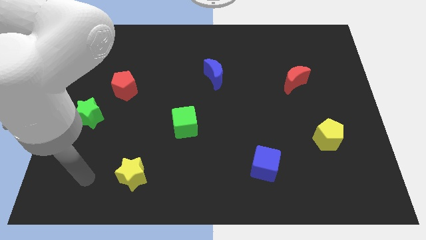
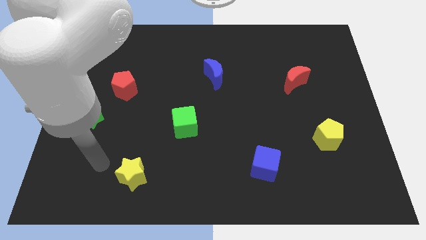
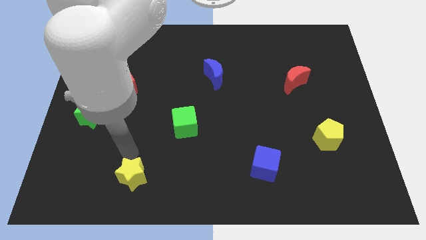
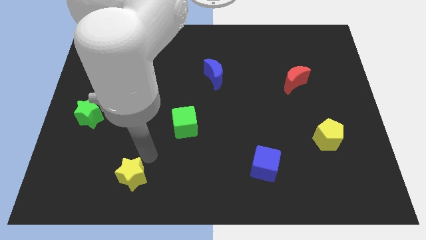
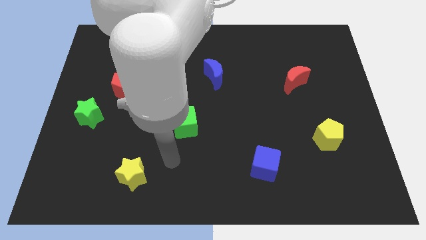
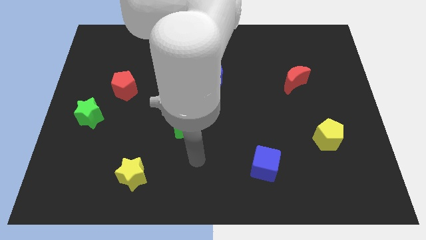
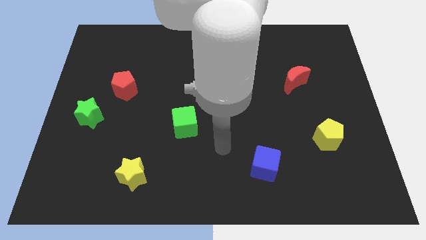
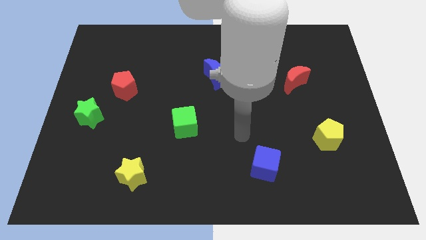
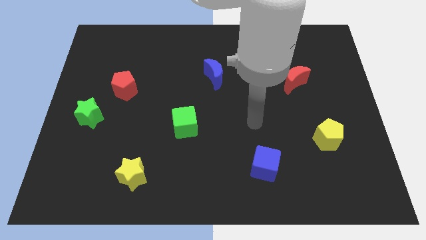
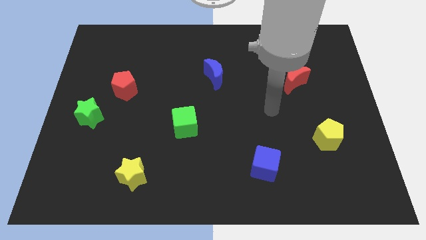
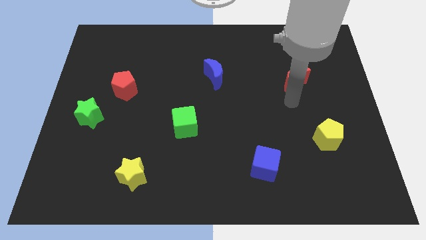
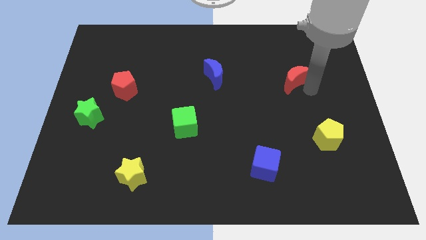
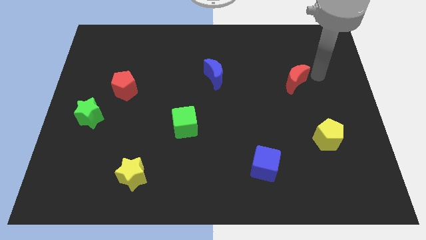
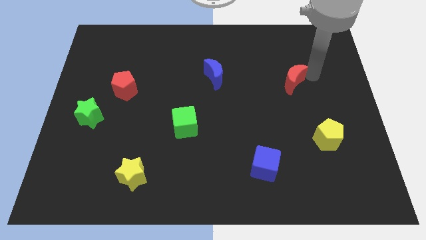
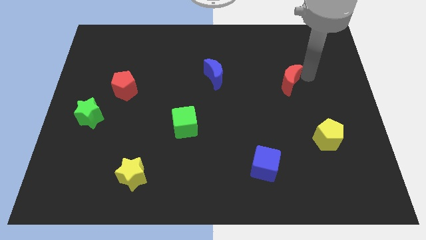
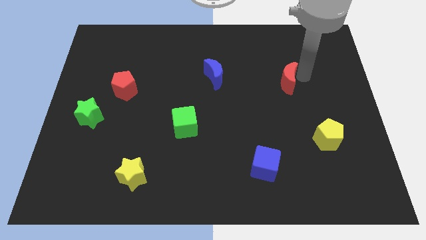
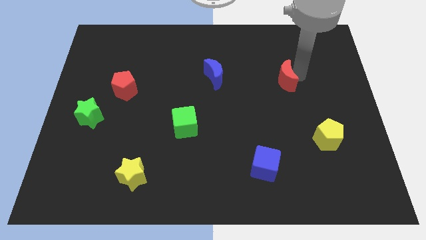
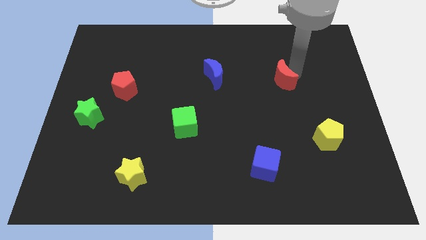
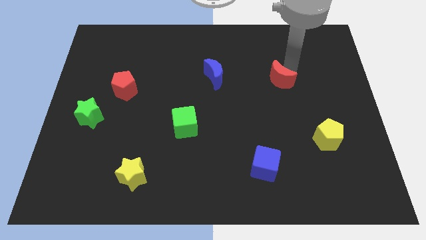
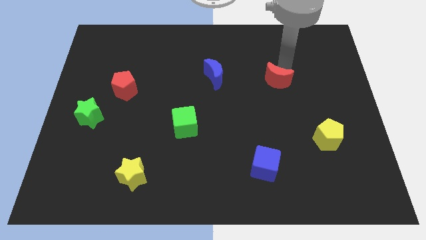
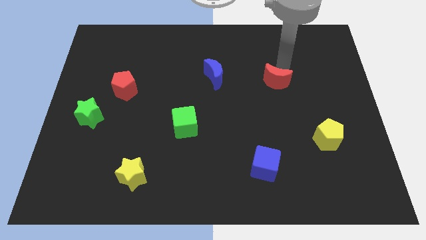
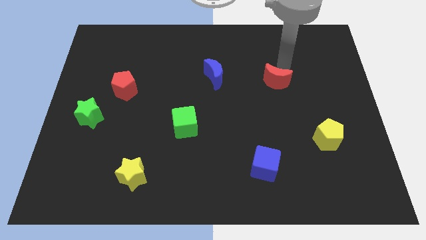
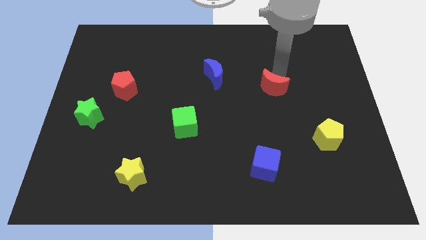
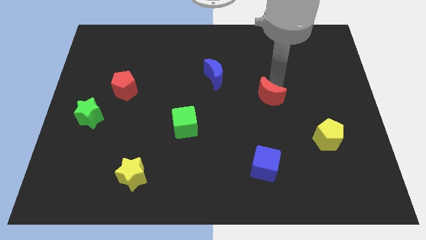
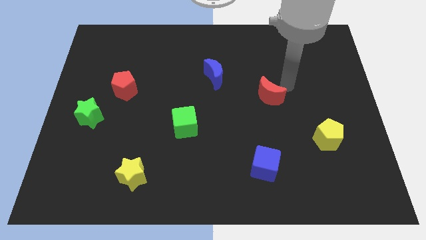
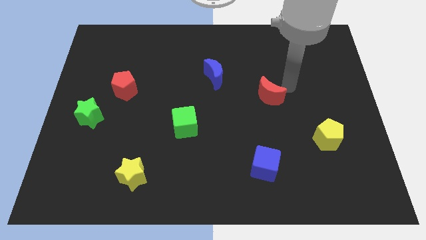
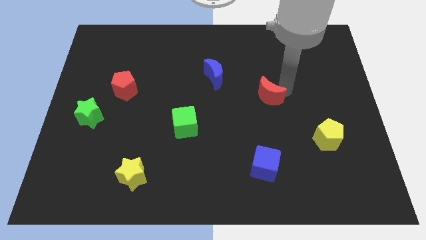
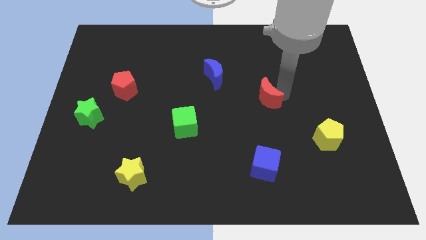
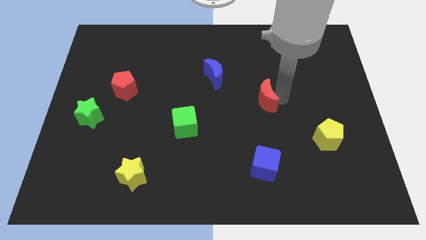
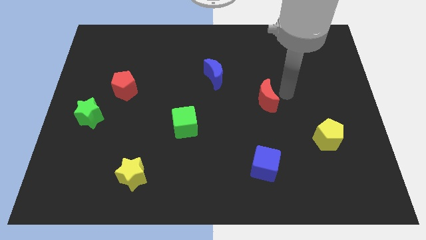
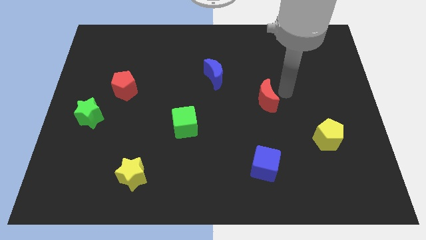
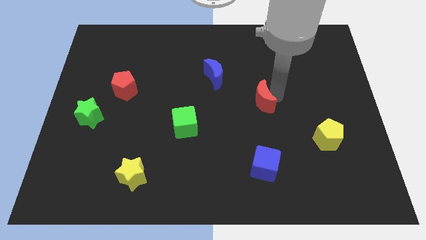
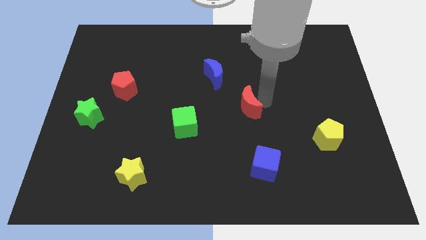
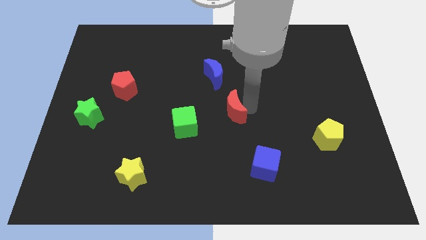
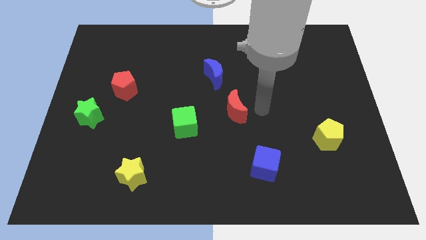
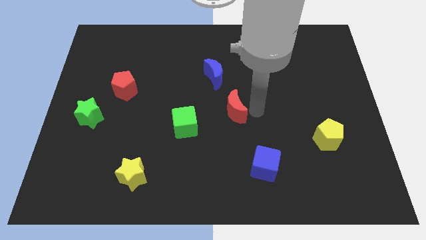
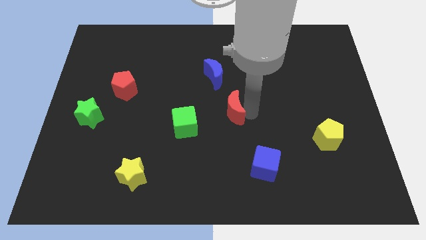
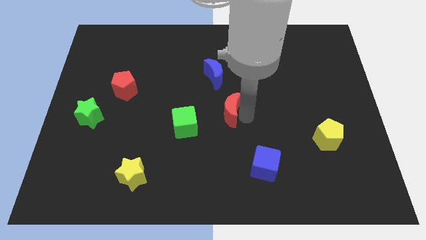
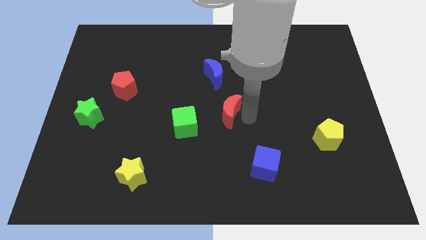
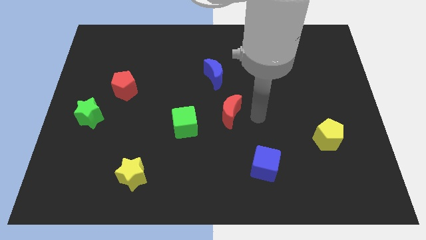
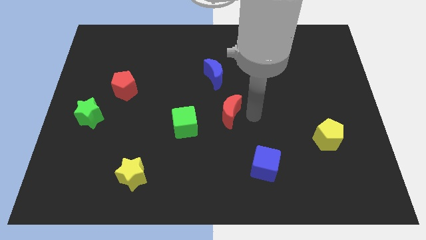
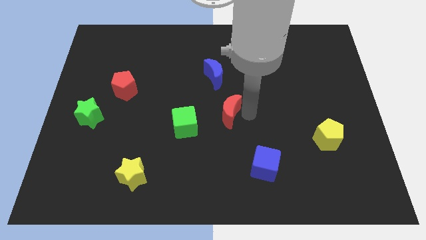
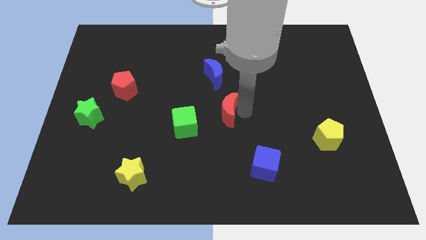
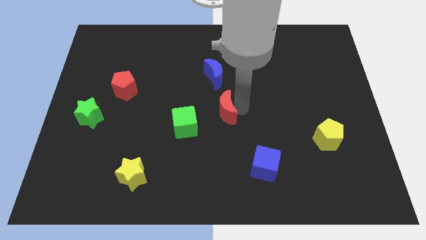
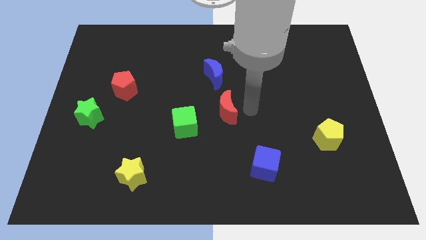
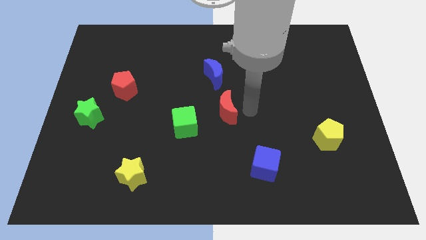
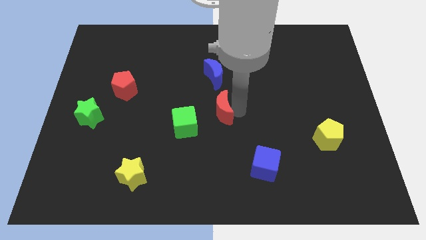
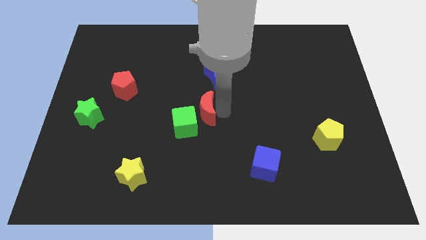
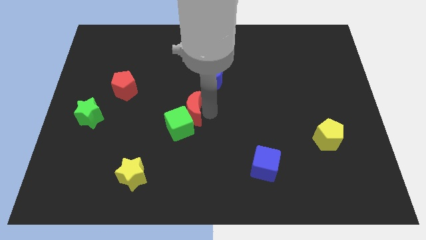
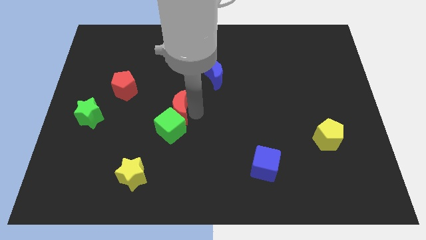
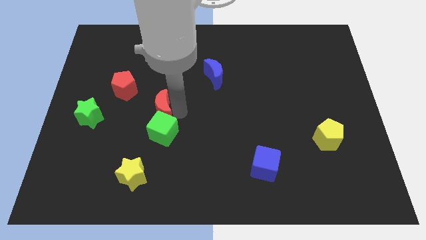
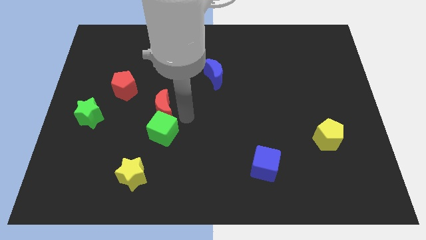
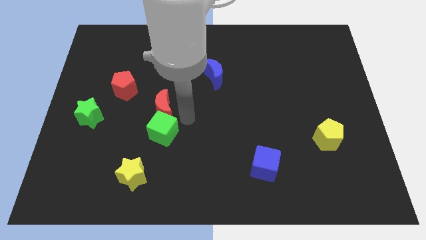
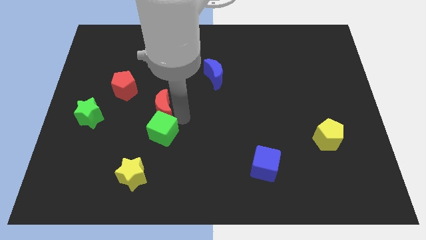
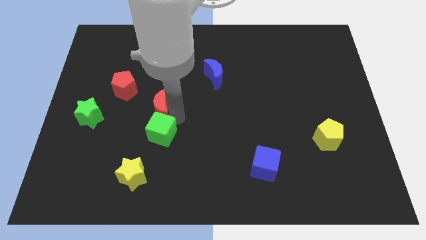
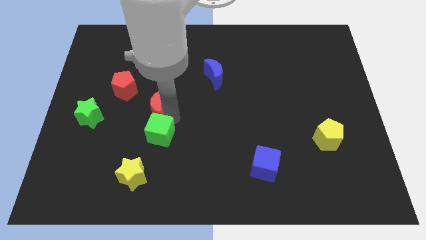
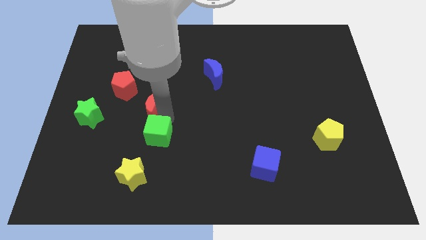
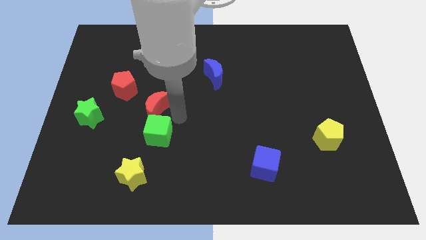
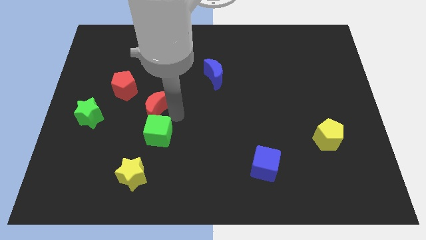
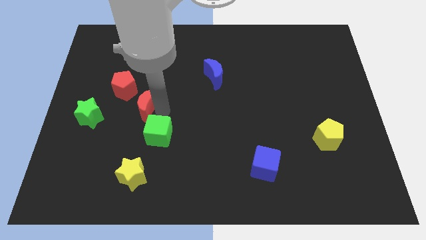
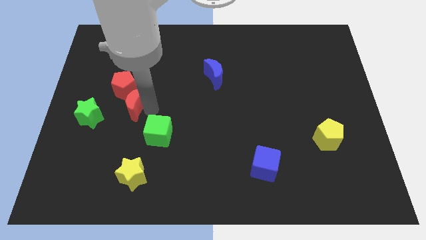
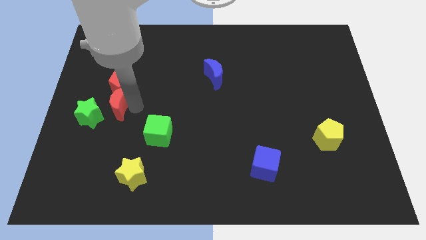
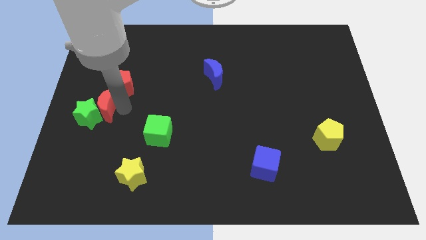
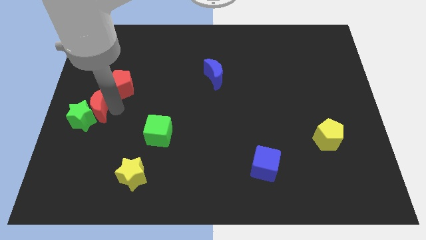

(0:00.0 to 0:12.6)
move the red moon to the left side of the board
